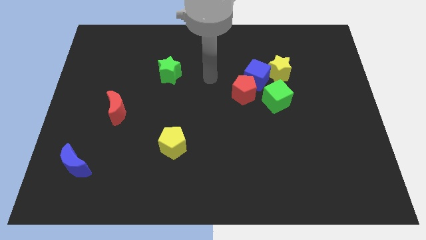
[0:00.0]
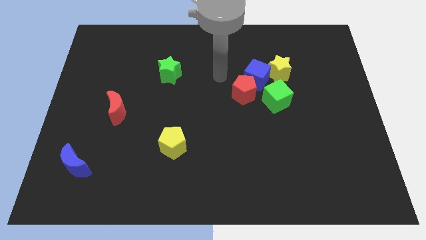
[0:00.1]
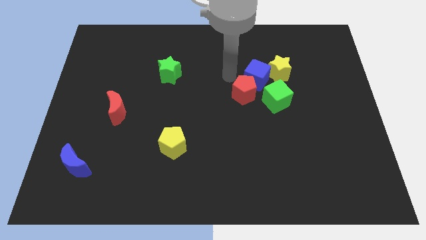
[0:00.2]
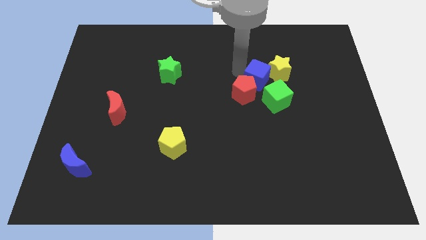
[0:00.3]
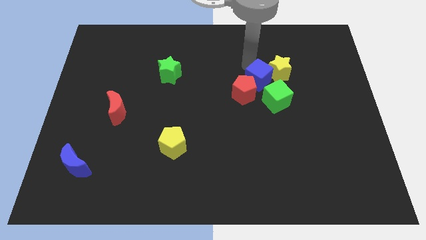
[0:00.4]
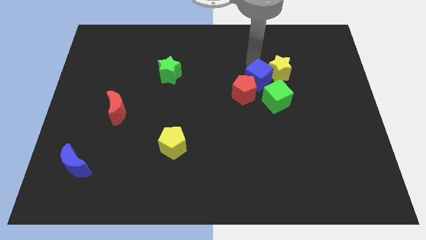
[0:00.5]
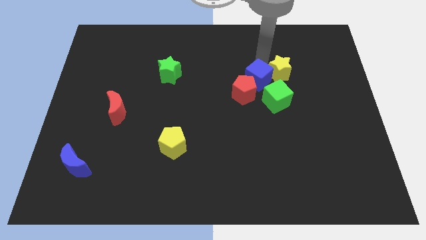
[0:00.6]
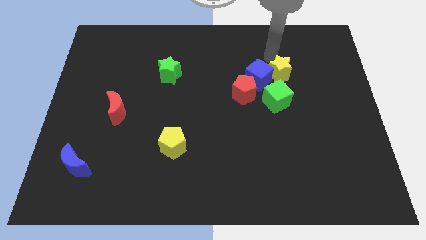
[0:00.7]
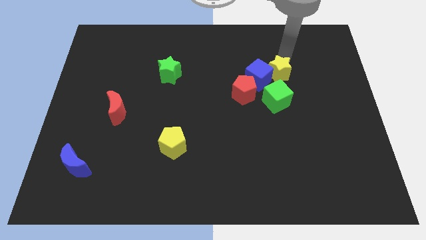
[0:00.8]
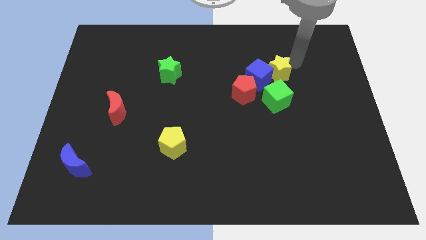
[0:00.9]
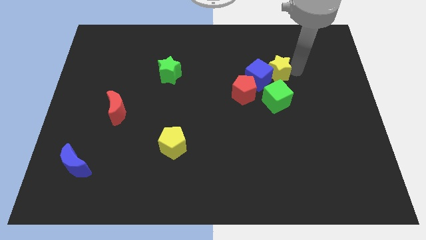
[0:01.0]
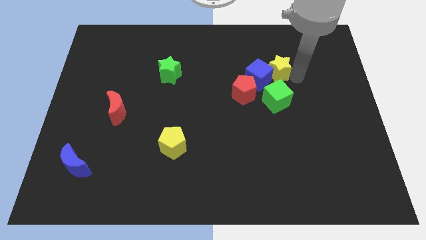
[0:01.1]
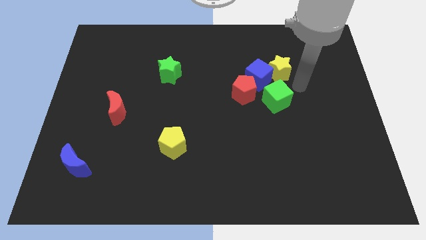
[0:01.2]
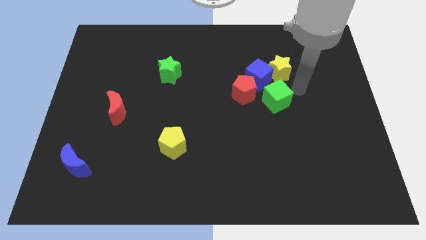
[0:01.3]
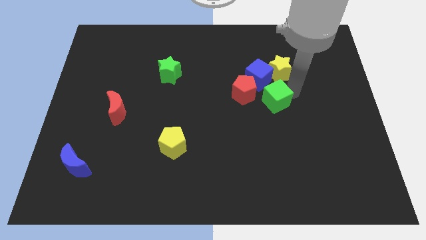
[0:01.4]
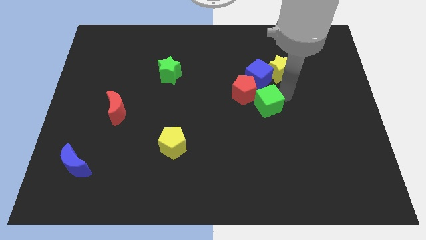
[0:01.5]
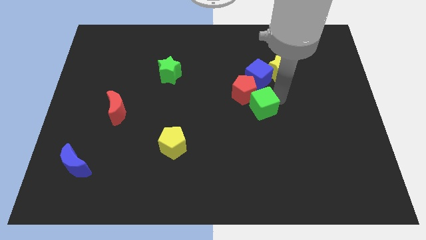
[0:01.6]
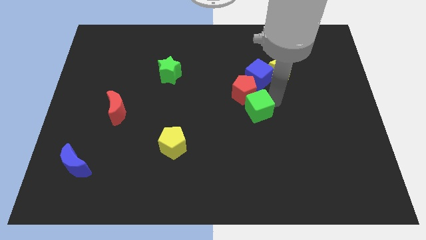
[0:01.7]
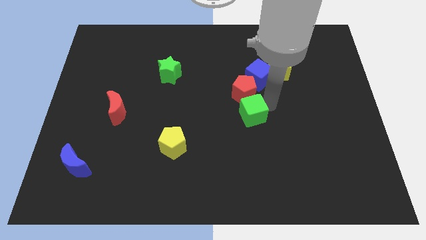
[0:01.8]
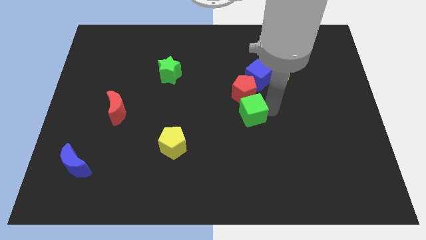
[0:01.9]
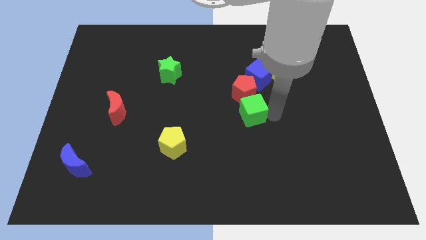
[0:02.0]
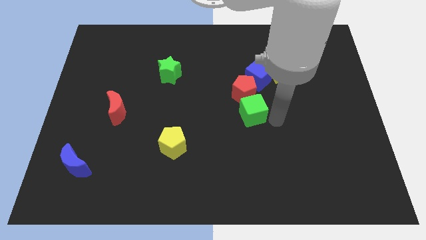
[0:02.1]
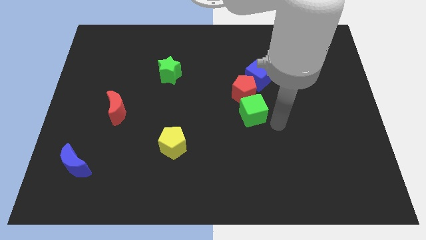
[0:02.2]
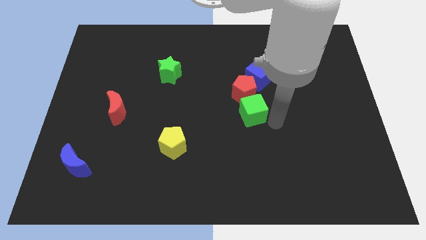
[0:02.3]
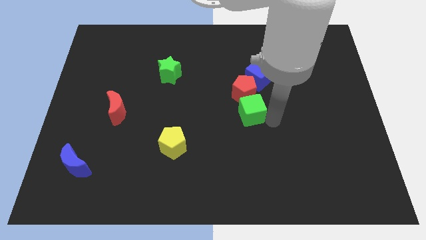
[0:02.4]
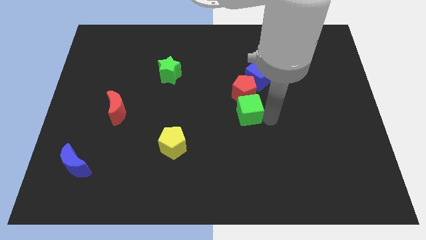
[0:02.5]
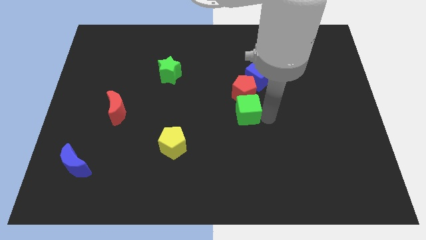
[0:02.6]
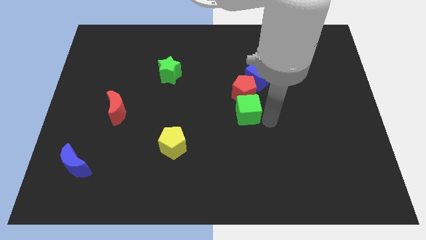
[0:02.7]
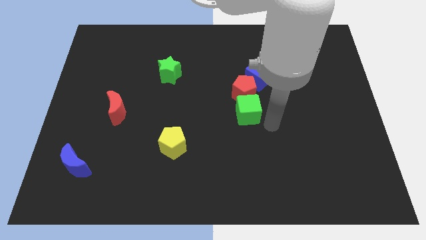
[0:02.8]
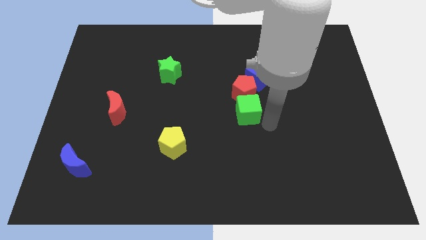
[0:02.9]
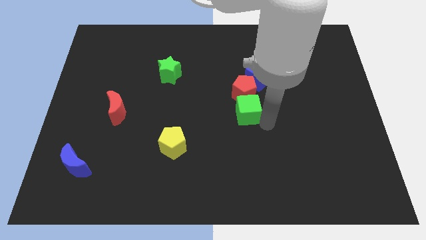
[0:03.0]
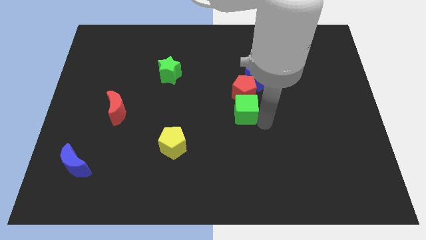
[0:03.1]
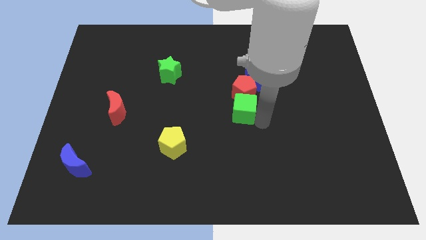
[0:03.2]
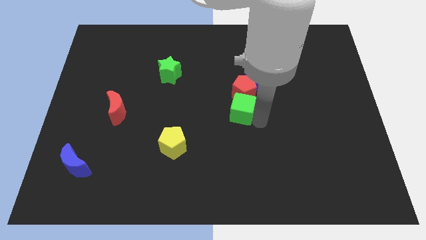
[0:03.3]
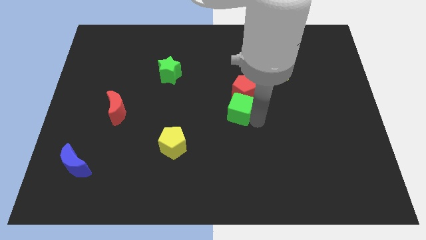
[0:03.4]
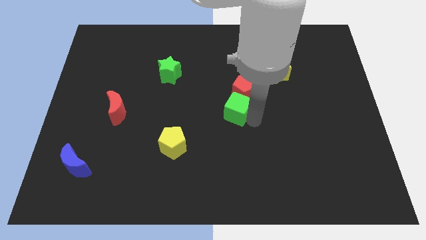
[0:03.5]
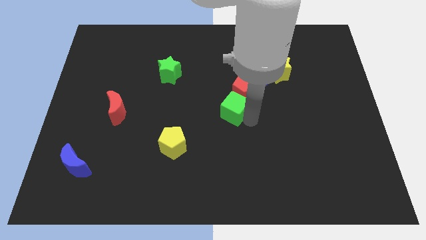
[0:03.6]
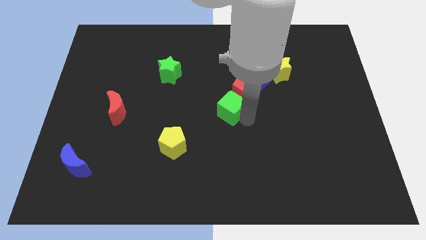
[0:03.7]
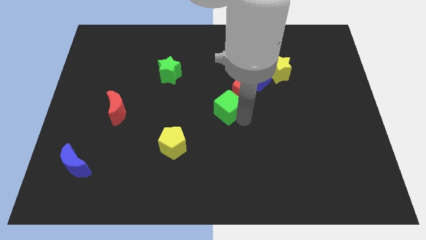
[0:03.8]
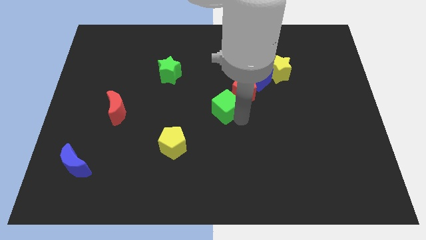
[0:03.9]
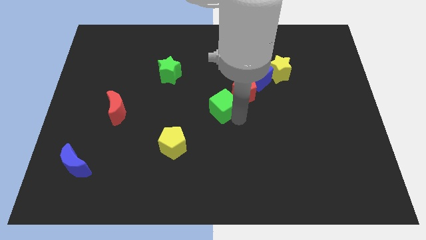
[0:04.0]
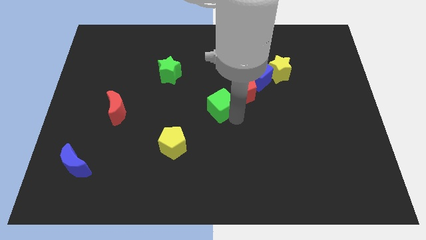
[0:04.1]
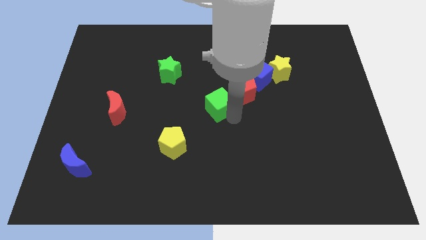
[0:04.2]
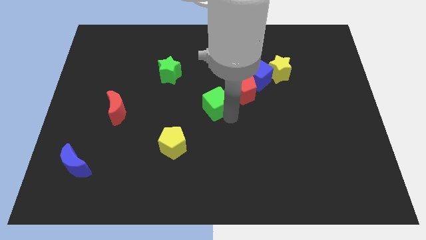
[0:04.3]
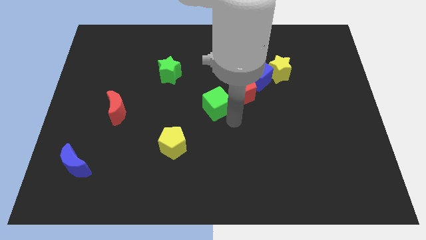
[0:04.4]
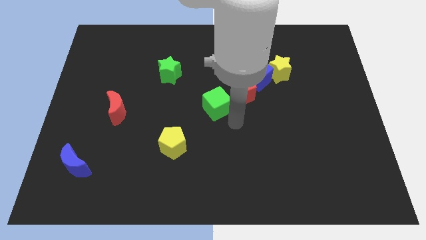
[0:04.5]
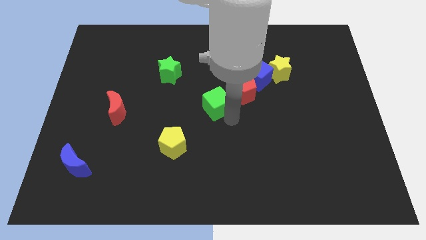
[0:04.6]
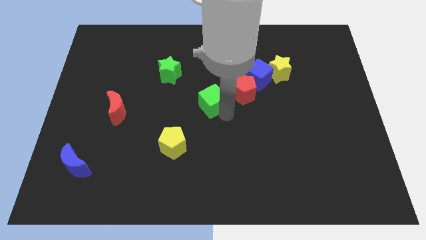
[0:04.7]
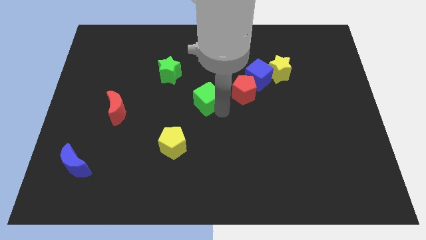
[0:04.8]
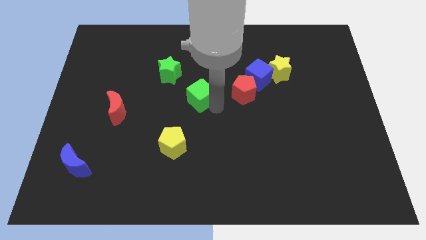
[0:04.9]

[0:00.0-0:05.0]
push the green cube to the bottom right of the green star
